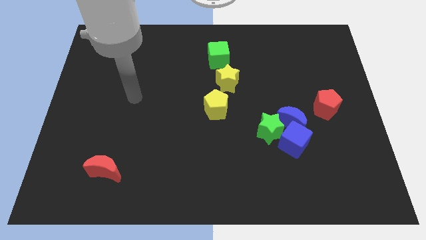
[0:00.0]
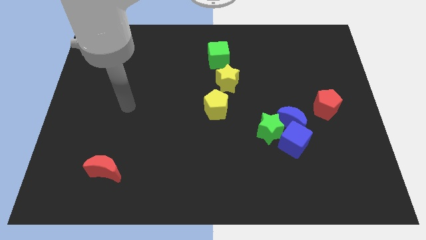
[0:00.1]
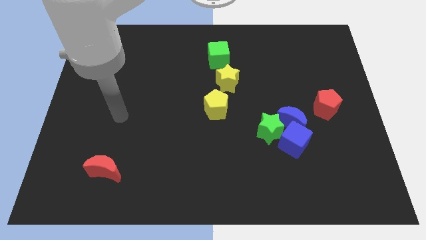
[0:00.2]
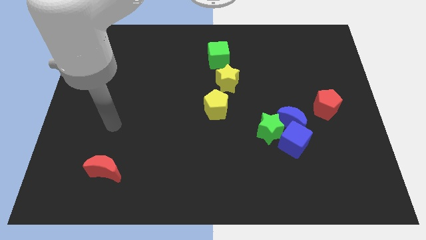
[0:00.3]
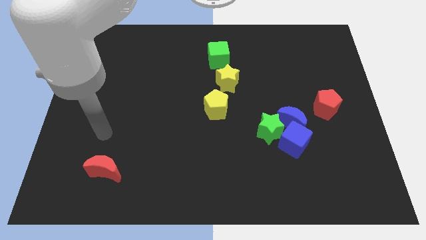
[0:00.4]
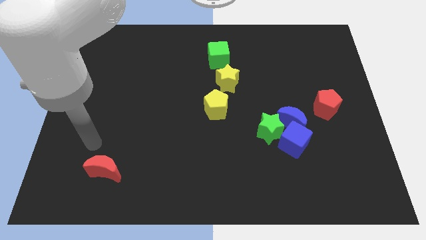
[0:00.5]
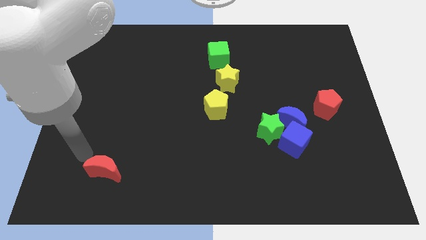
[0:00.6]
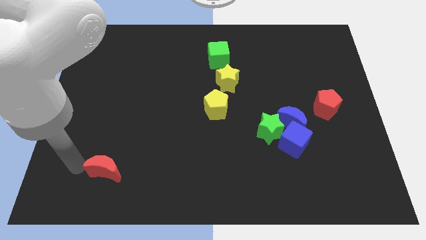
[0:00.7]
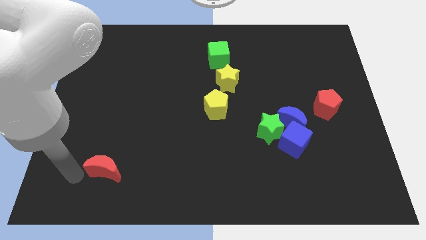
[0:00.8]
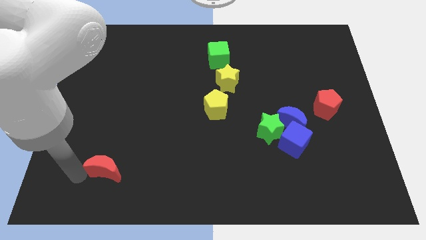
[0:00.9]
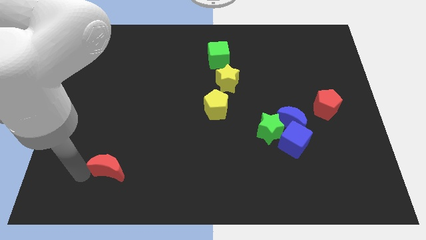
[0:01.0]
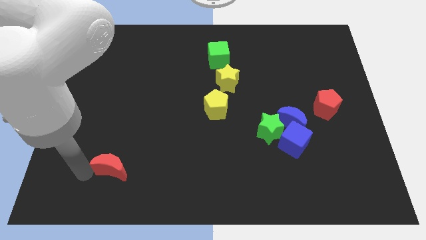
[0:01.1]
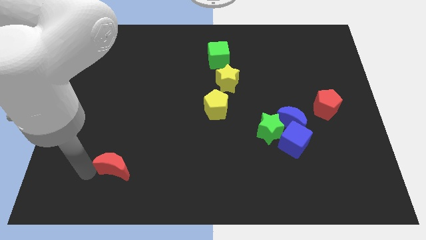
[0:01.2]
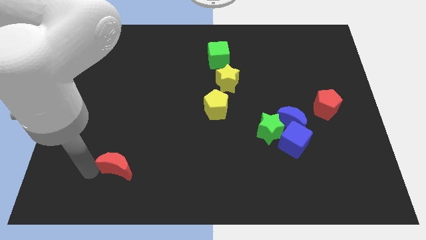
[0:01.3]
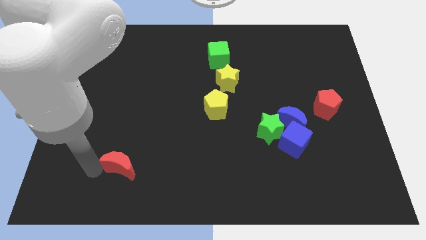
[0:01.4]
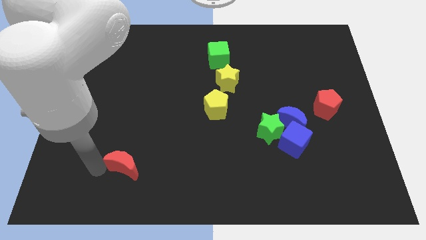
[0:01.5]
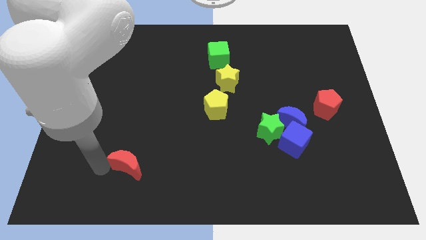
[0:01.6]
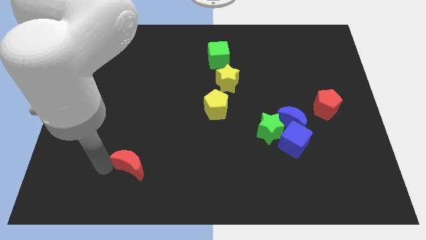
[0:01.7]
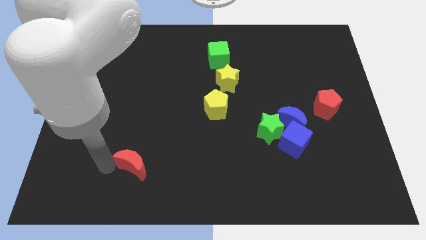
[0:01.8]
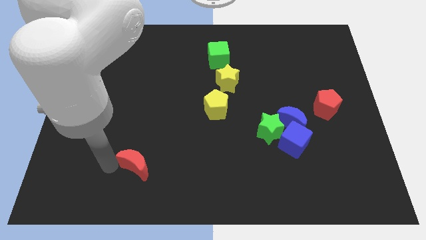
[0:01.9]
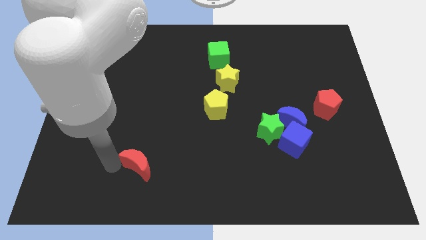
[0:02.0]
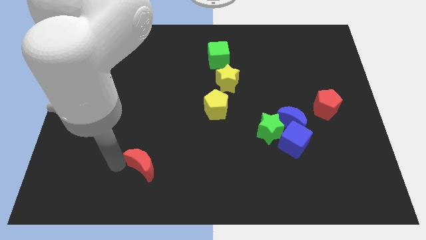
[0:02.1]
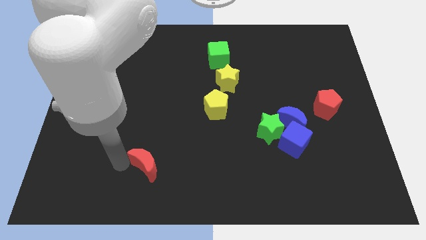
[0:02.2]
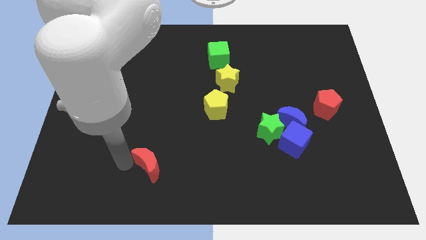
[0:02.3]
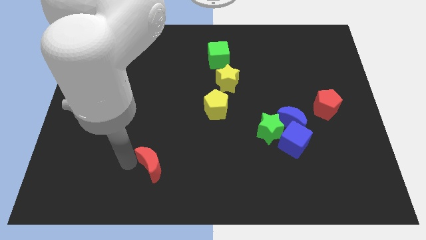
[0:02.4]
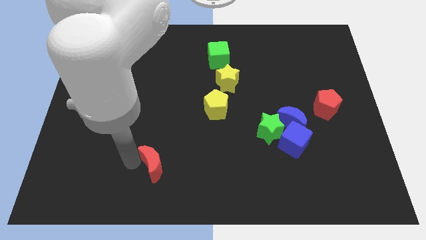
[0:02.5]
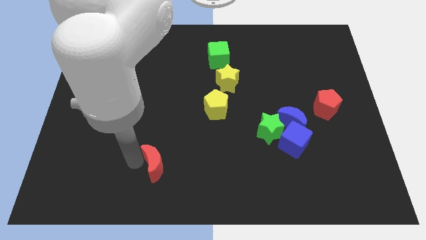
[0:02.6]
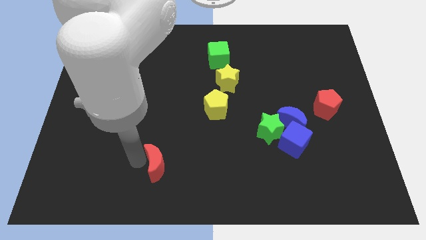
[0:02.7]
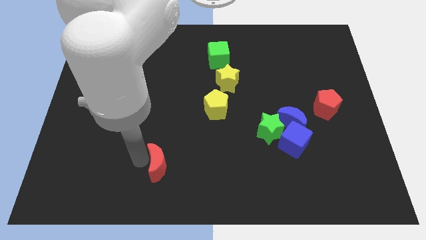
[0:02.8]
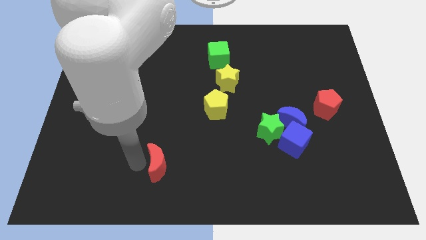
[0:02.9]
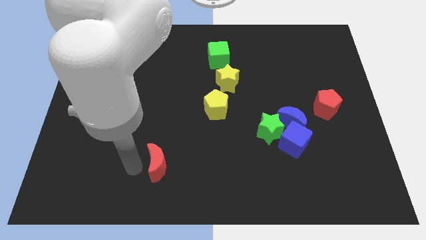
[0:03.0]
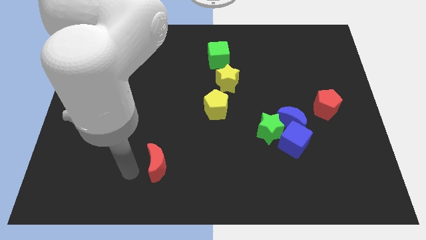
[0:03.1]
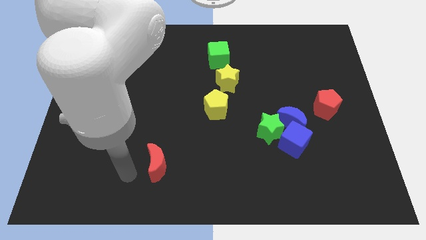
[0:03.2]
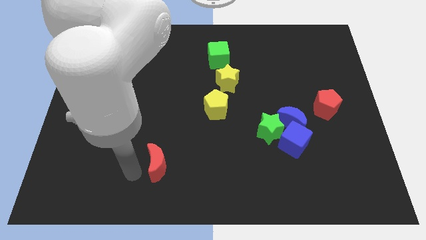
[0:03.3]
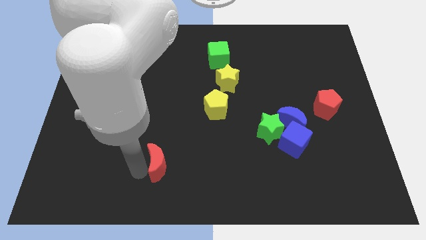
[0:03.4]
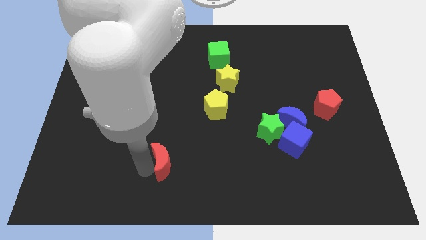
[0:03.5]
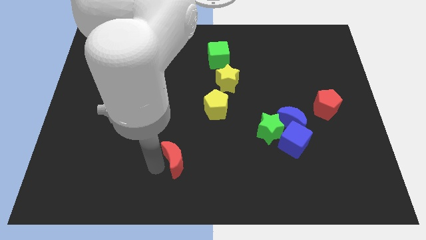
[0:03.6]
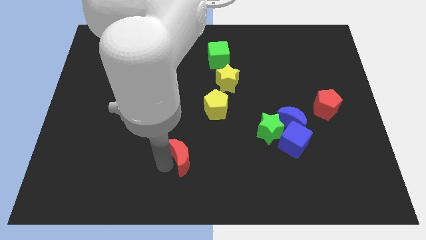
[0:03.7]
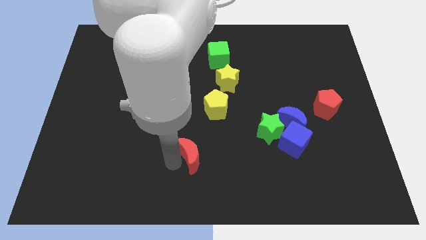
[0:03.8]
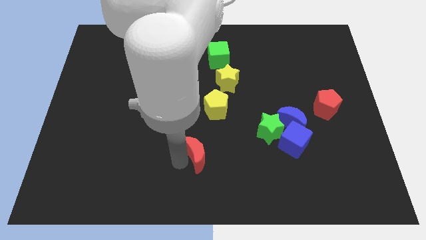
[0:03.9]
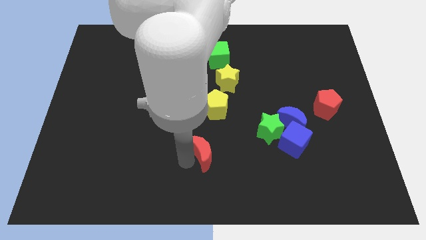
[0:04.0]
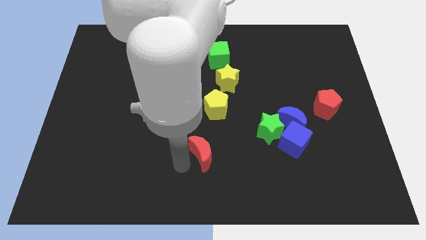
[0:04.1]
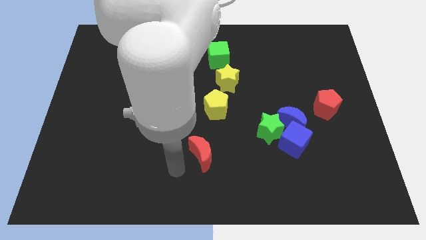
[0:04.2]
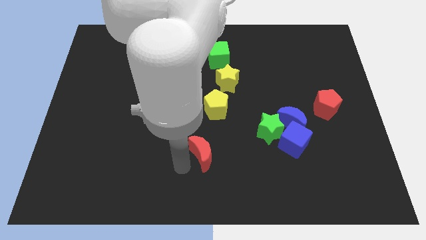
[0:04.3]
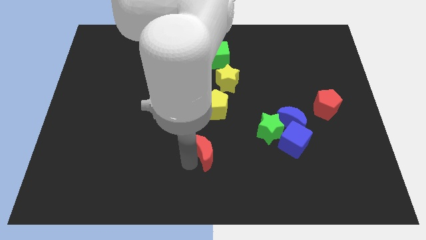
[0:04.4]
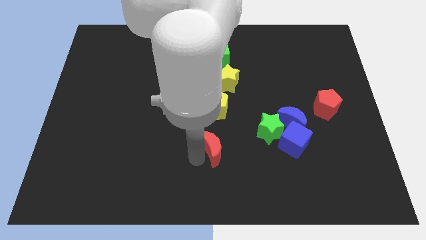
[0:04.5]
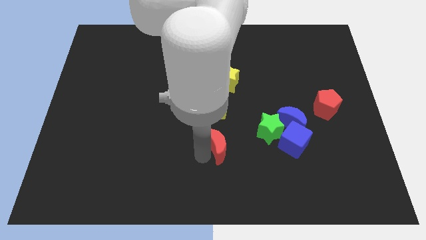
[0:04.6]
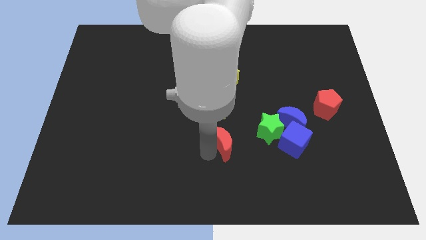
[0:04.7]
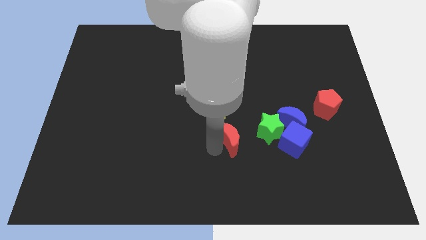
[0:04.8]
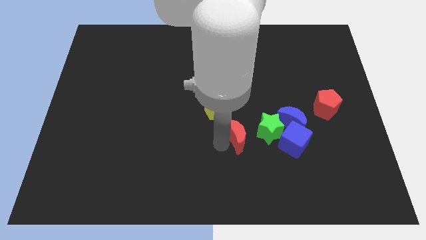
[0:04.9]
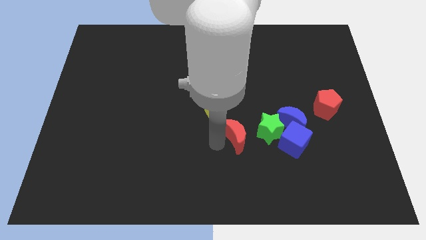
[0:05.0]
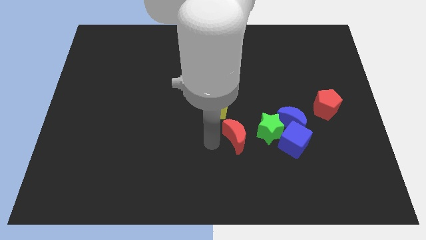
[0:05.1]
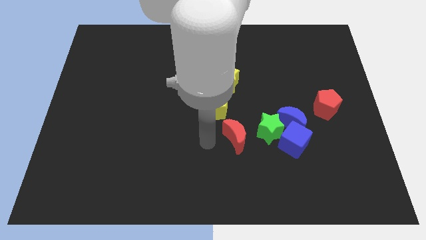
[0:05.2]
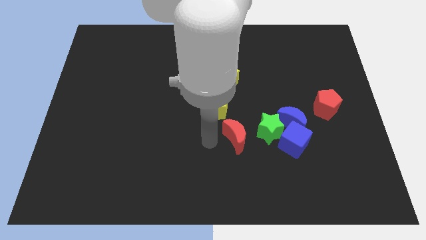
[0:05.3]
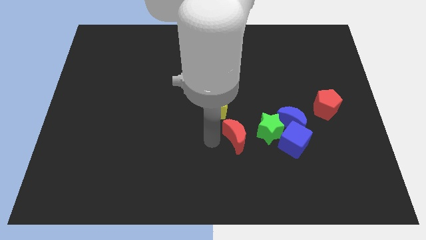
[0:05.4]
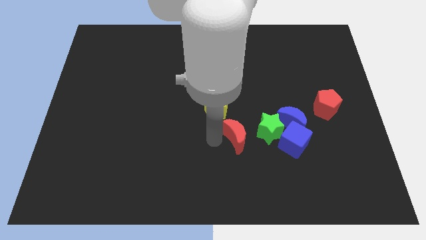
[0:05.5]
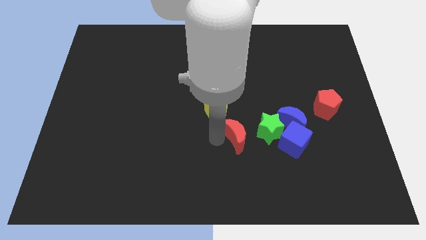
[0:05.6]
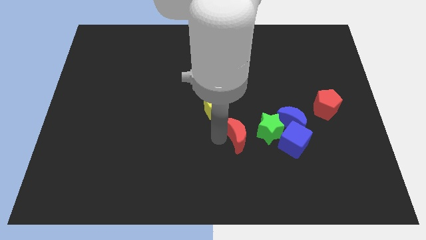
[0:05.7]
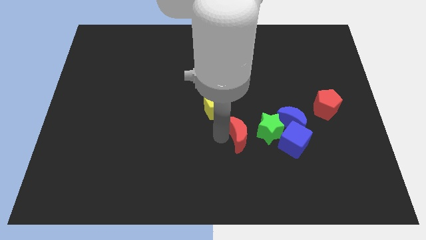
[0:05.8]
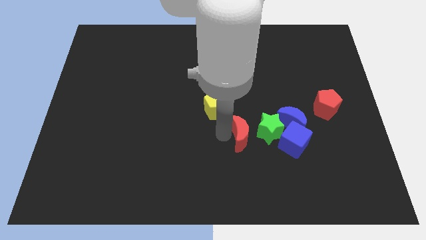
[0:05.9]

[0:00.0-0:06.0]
move the red moon close to the green star

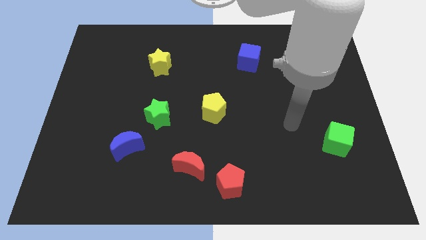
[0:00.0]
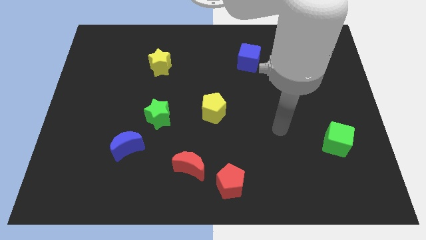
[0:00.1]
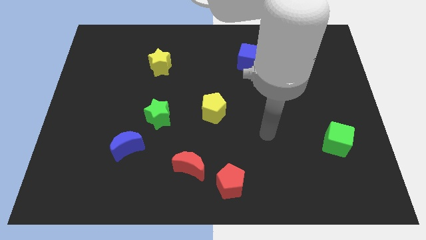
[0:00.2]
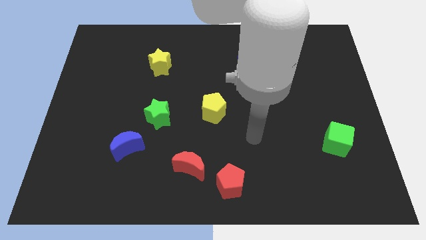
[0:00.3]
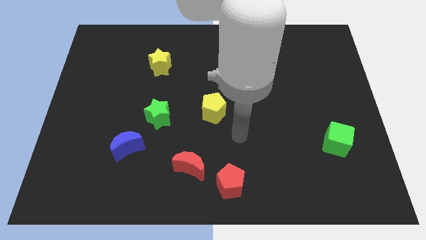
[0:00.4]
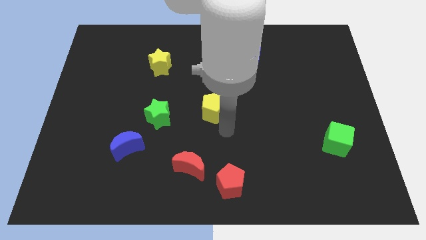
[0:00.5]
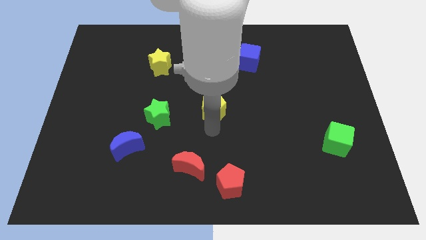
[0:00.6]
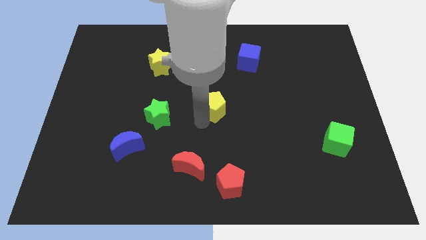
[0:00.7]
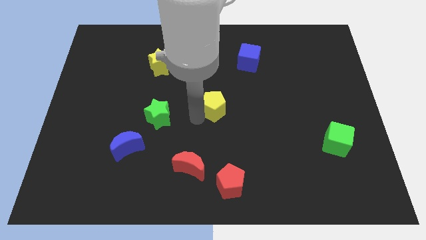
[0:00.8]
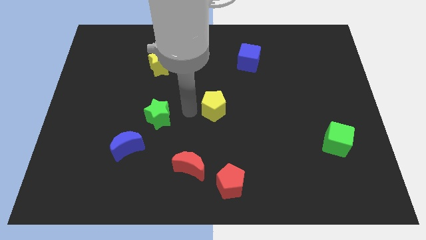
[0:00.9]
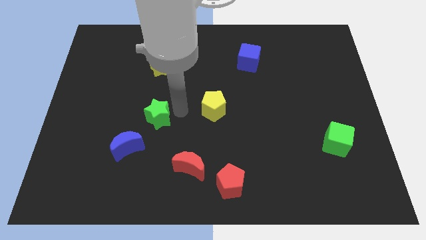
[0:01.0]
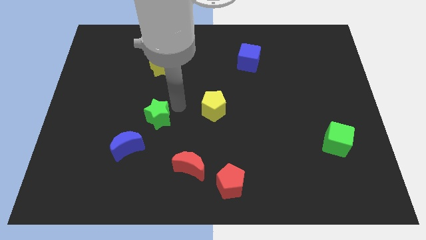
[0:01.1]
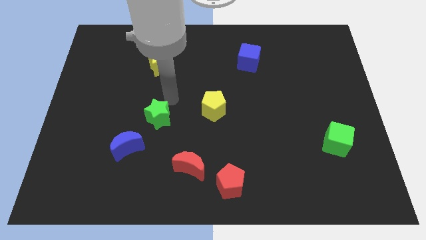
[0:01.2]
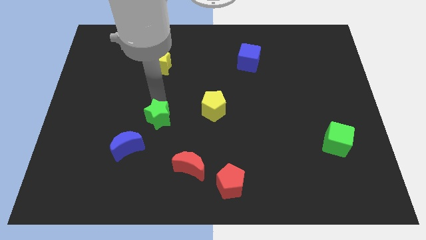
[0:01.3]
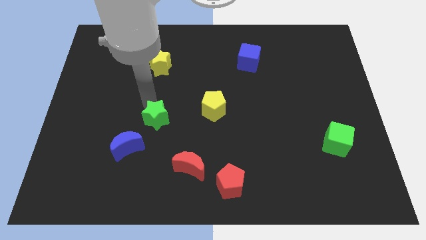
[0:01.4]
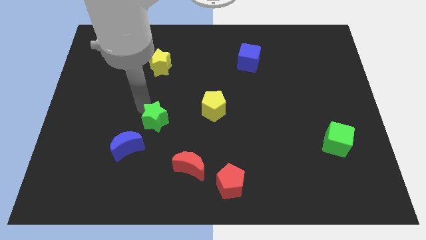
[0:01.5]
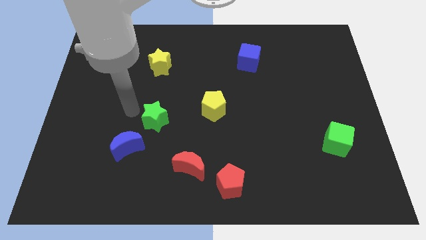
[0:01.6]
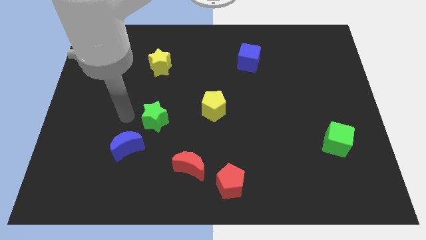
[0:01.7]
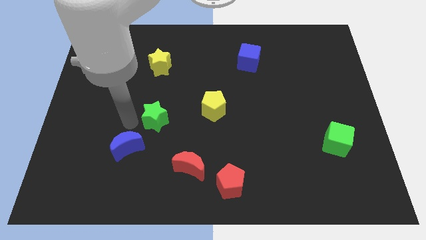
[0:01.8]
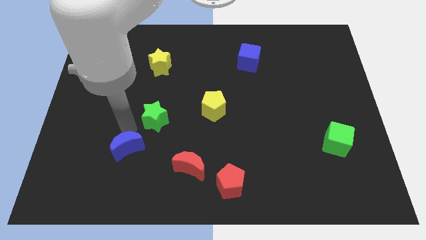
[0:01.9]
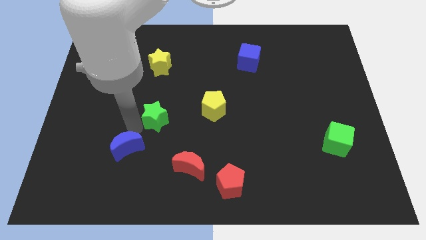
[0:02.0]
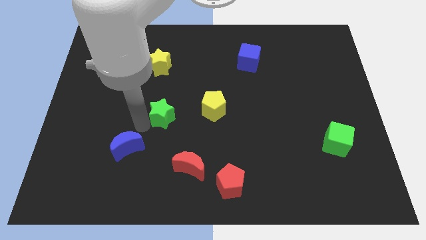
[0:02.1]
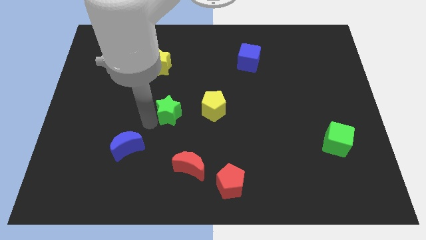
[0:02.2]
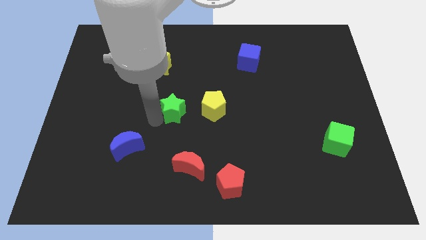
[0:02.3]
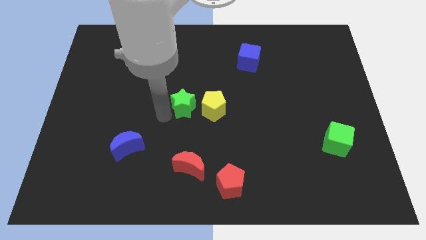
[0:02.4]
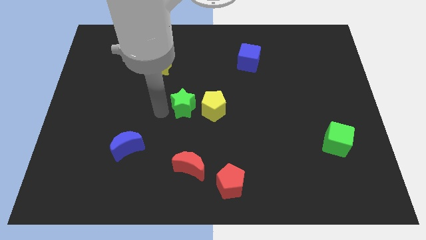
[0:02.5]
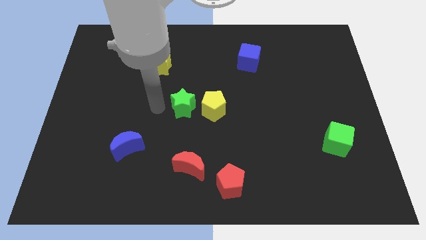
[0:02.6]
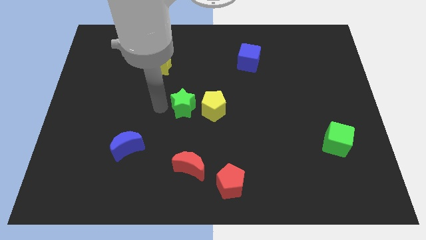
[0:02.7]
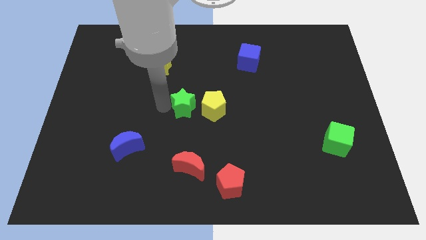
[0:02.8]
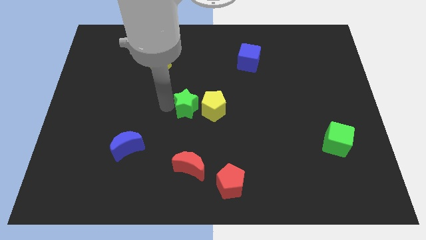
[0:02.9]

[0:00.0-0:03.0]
move the green star to the yellow pentagon
